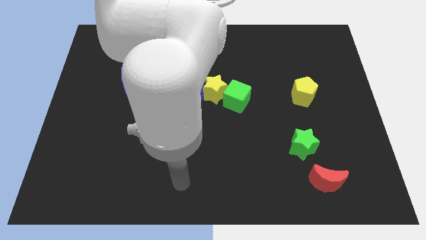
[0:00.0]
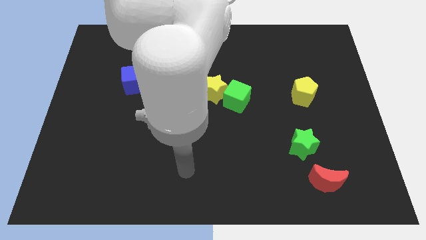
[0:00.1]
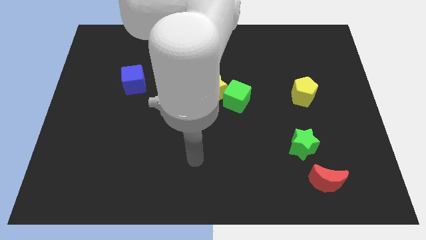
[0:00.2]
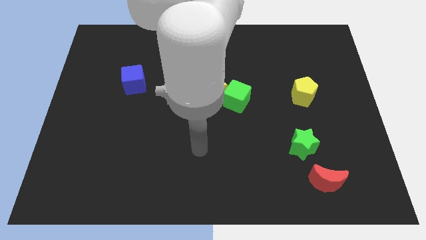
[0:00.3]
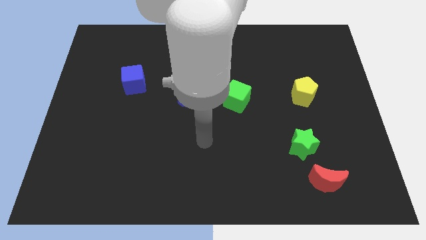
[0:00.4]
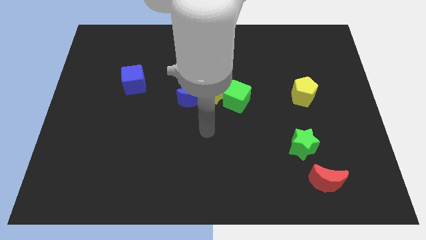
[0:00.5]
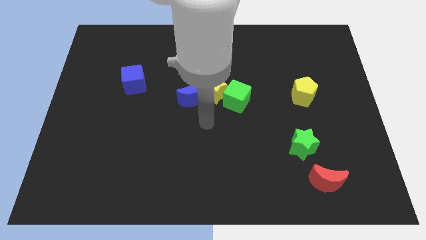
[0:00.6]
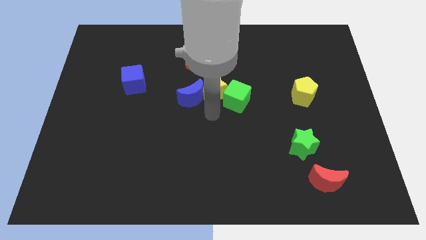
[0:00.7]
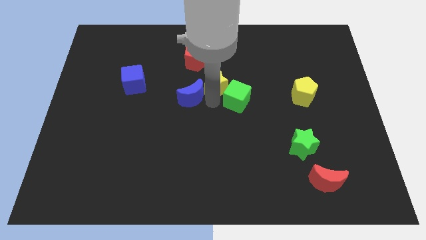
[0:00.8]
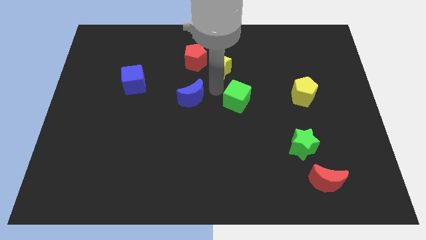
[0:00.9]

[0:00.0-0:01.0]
move the blue moon away from the yellow star

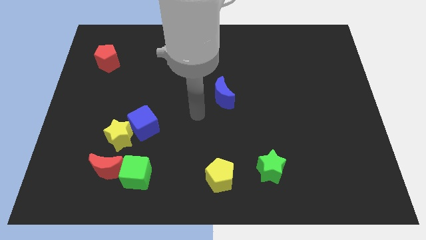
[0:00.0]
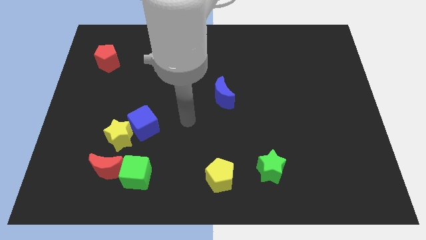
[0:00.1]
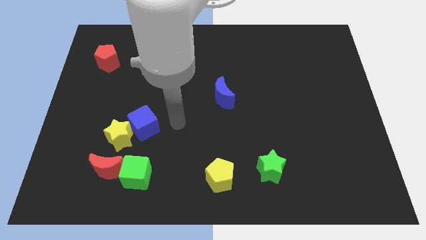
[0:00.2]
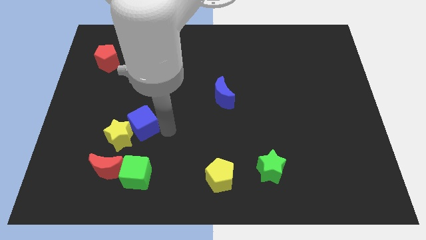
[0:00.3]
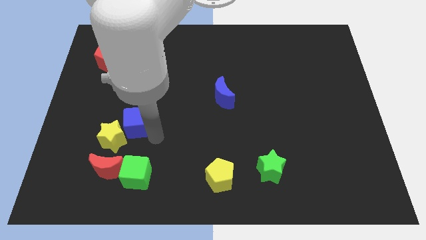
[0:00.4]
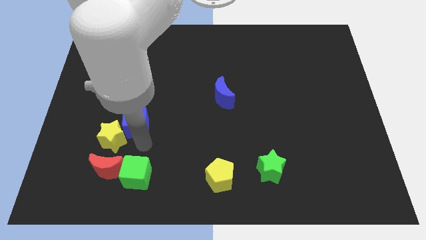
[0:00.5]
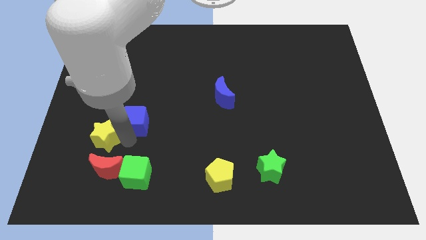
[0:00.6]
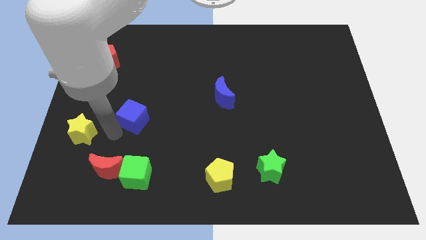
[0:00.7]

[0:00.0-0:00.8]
separate the blue cube from the yellow star

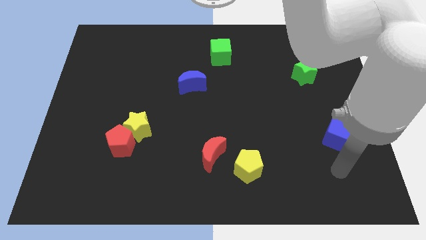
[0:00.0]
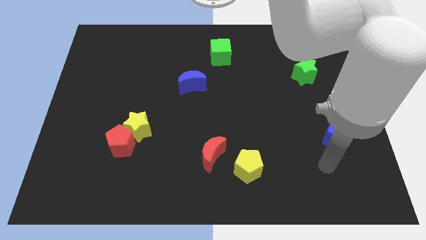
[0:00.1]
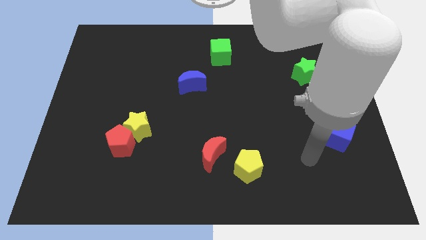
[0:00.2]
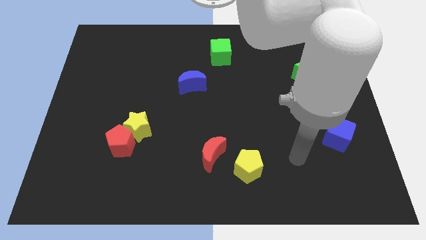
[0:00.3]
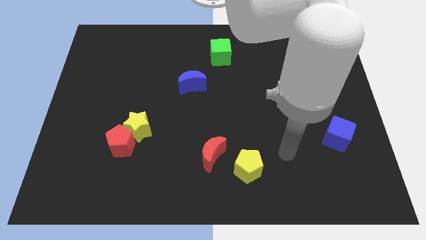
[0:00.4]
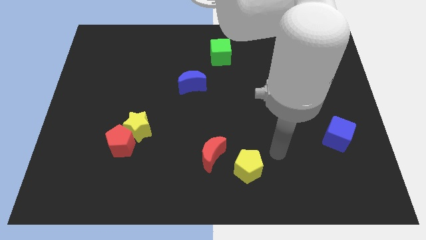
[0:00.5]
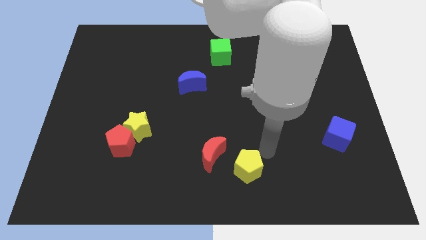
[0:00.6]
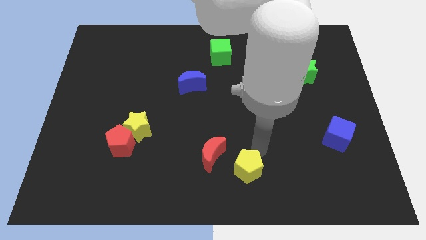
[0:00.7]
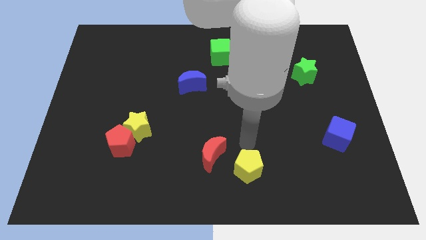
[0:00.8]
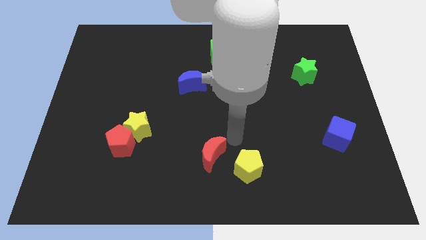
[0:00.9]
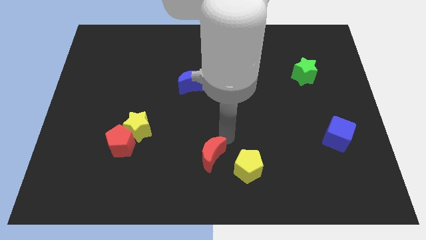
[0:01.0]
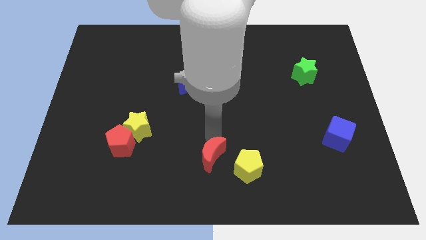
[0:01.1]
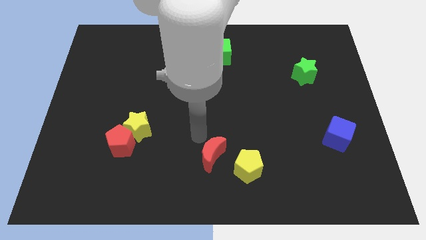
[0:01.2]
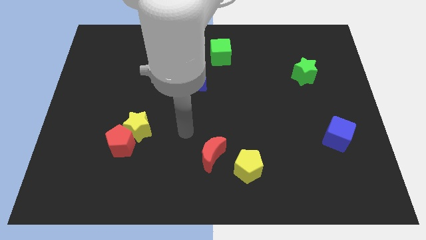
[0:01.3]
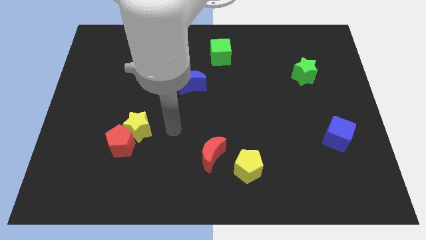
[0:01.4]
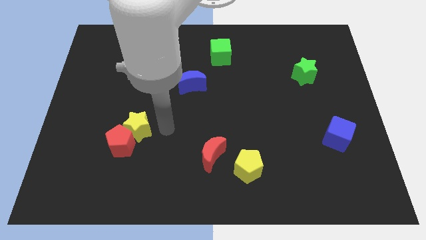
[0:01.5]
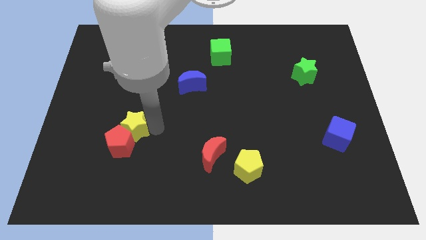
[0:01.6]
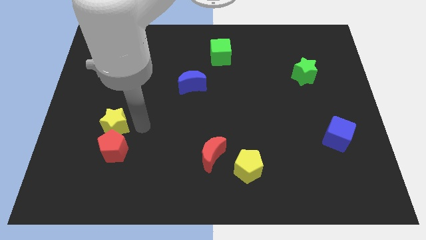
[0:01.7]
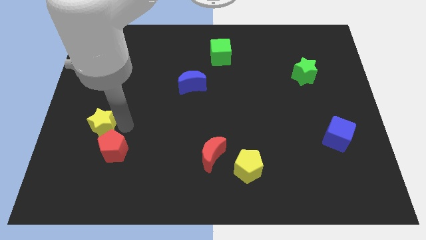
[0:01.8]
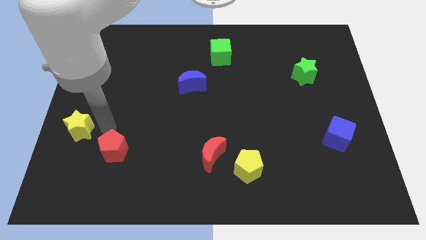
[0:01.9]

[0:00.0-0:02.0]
pull the red pentagon apart from the yellow star

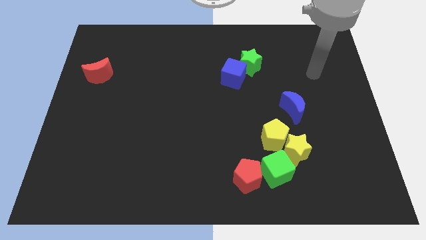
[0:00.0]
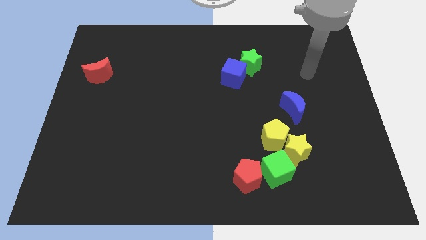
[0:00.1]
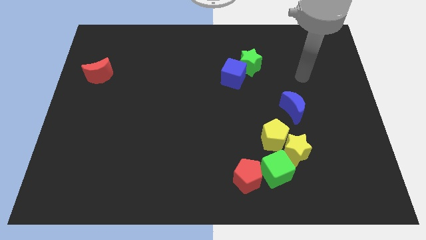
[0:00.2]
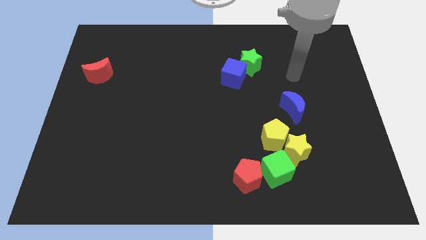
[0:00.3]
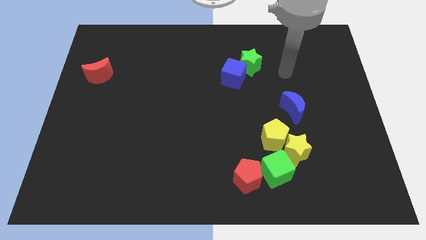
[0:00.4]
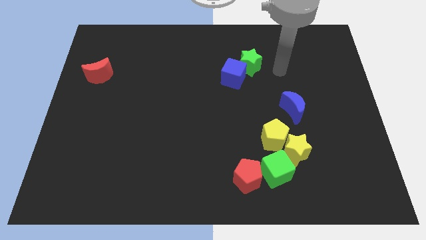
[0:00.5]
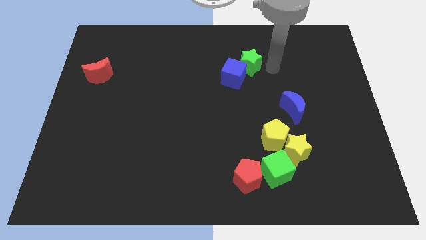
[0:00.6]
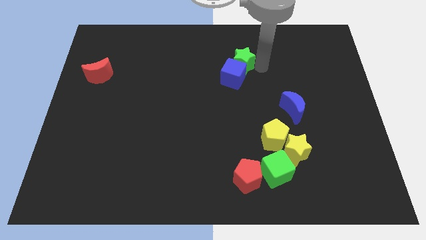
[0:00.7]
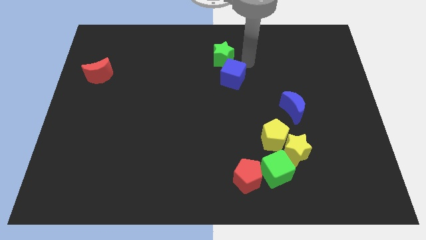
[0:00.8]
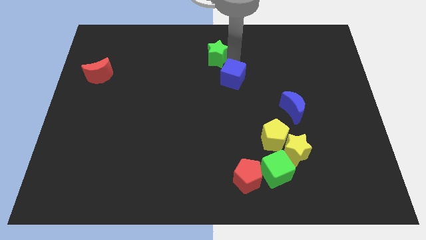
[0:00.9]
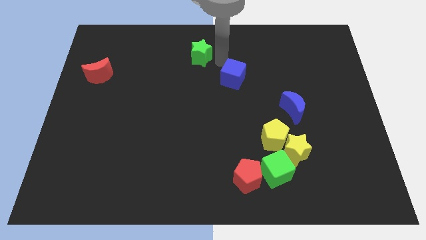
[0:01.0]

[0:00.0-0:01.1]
separate the blue cube from the green star

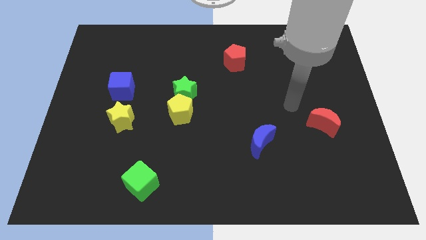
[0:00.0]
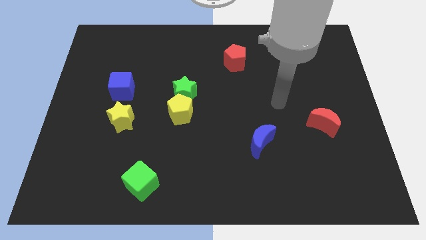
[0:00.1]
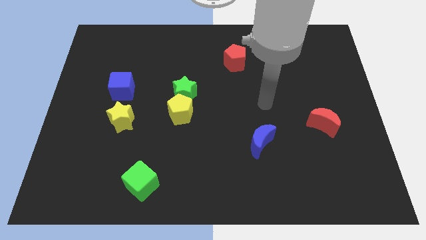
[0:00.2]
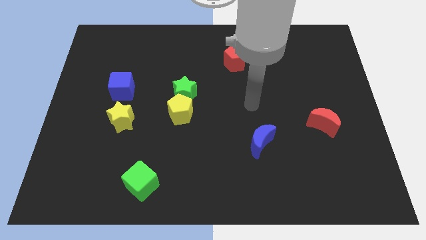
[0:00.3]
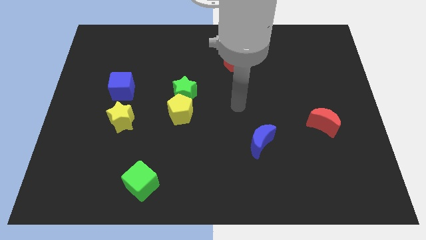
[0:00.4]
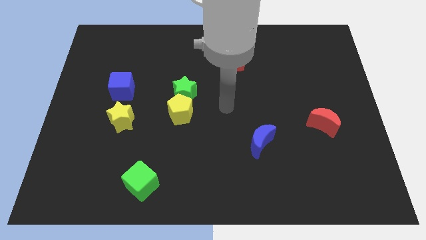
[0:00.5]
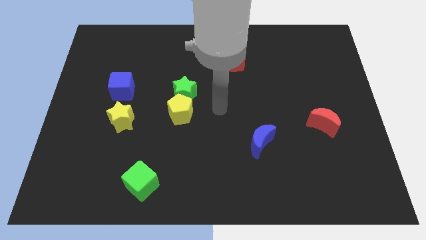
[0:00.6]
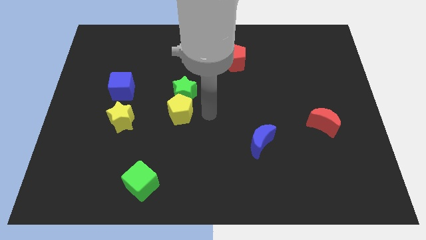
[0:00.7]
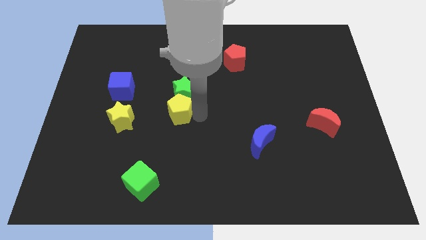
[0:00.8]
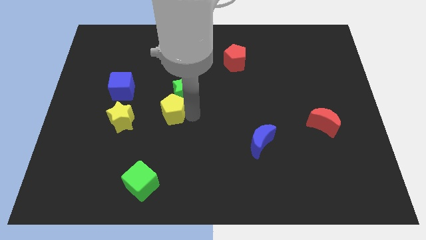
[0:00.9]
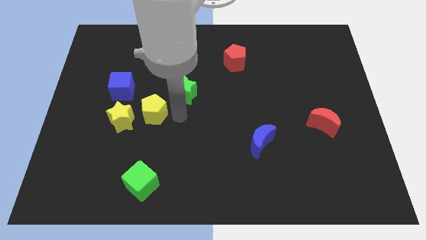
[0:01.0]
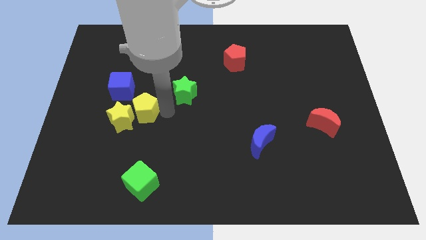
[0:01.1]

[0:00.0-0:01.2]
pull the green star apart from the yellow pentagon

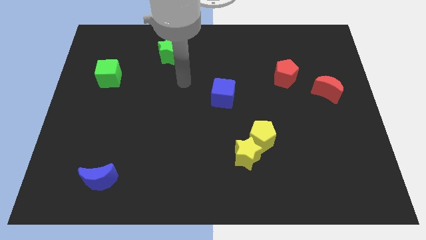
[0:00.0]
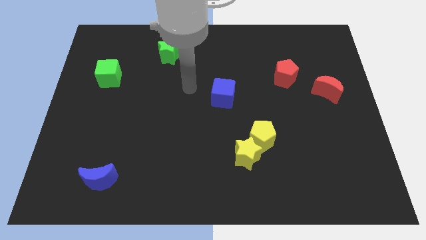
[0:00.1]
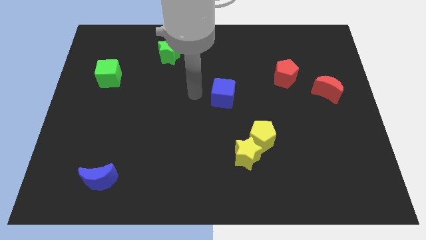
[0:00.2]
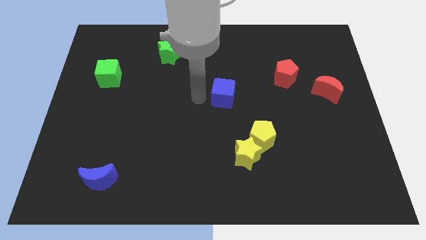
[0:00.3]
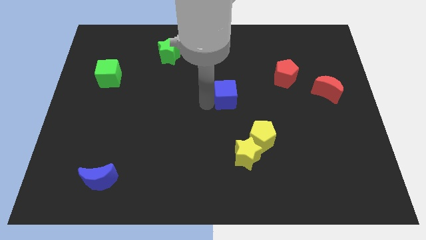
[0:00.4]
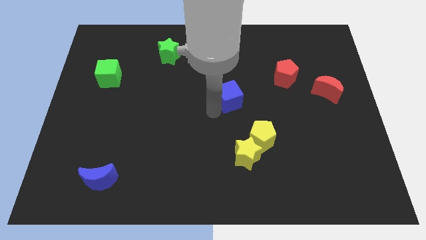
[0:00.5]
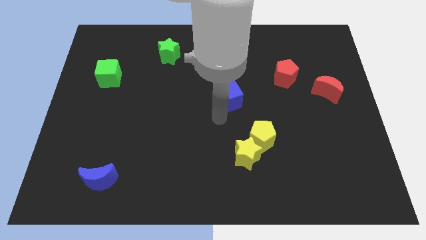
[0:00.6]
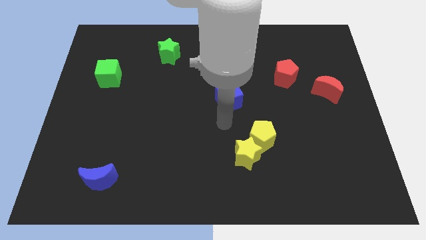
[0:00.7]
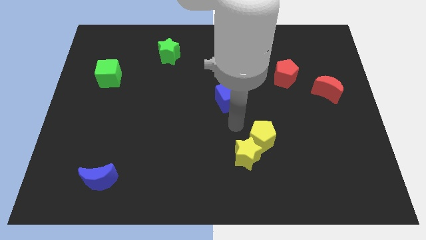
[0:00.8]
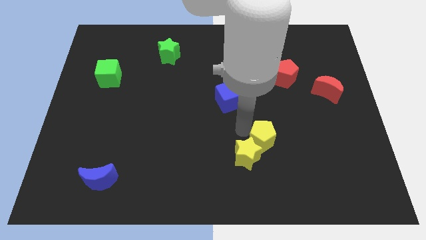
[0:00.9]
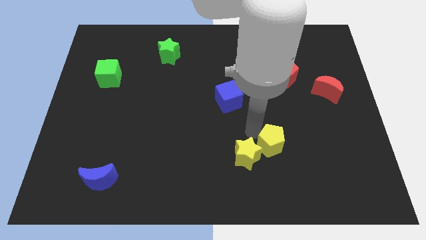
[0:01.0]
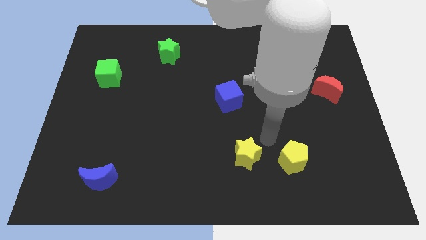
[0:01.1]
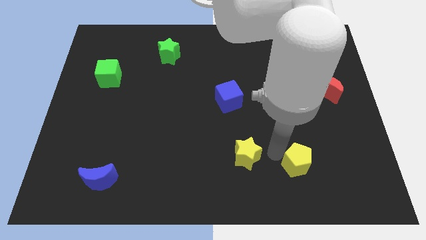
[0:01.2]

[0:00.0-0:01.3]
move the yellow star away from the yellow pentagon

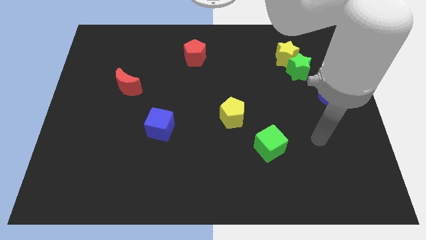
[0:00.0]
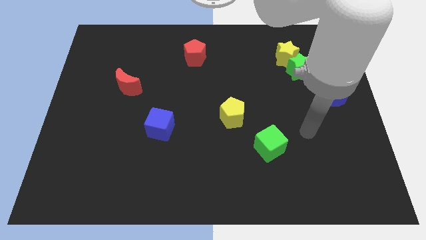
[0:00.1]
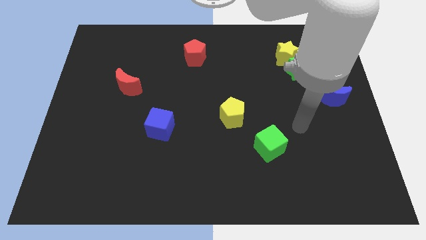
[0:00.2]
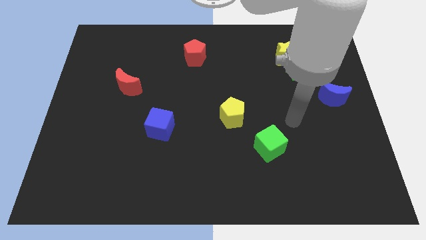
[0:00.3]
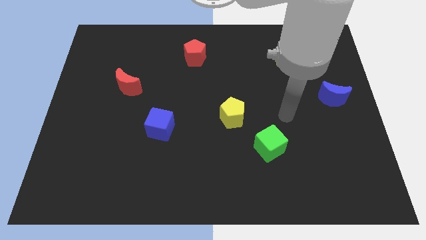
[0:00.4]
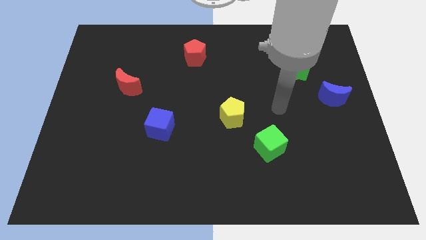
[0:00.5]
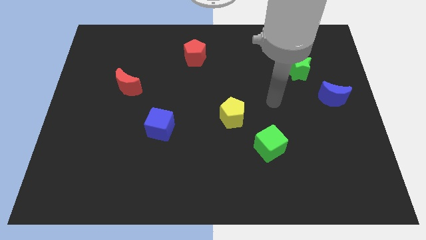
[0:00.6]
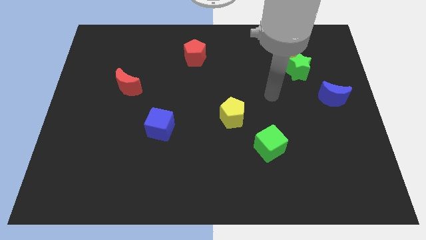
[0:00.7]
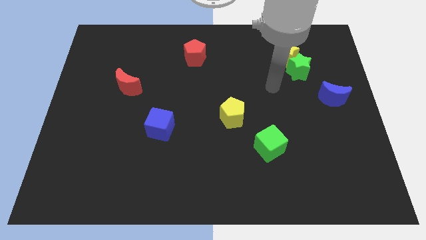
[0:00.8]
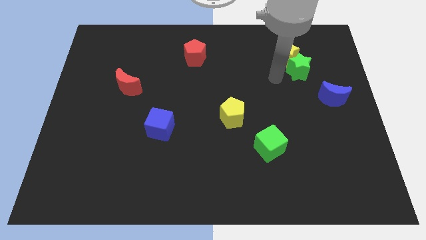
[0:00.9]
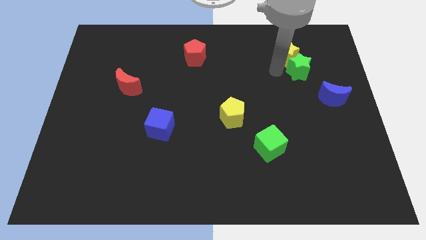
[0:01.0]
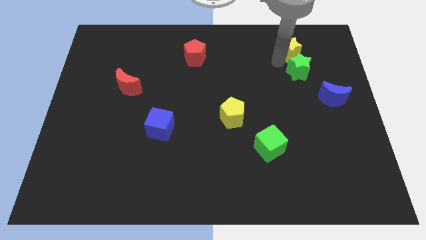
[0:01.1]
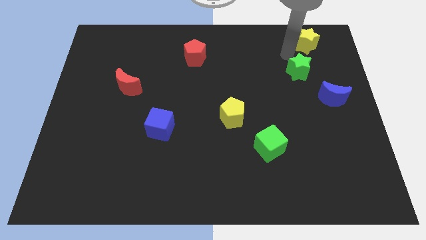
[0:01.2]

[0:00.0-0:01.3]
separate the green star from the yellow star

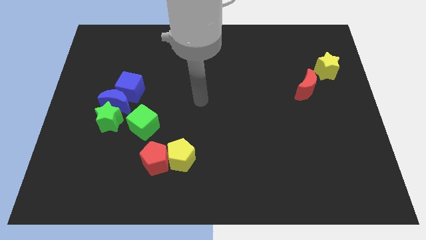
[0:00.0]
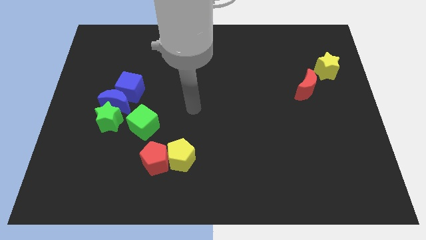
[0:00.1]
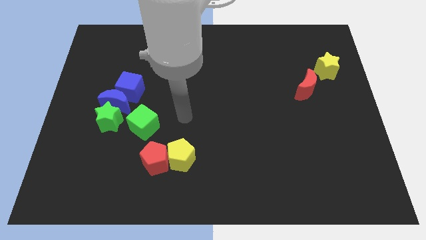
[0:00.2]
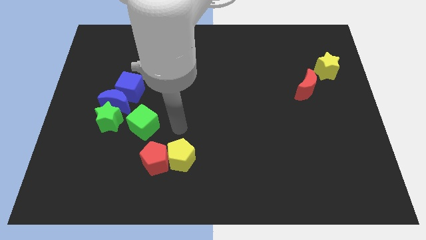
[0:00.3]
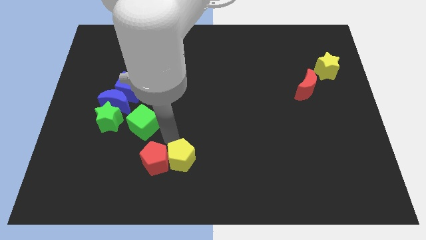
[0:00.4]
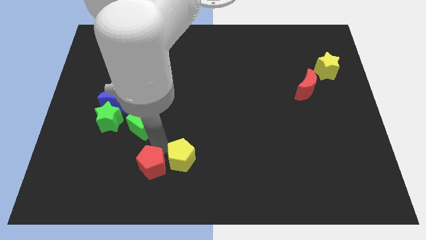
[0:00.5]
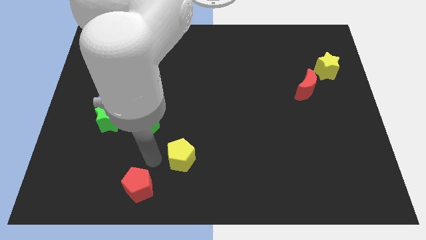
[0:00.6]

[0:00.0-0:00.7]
move the yellow pentagon away from the red pentagon

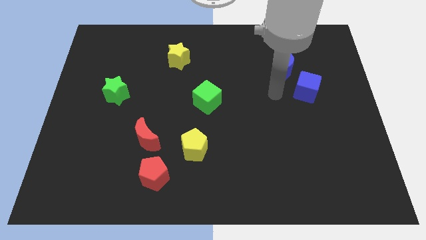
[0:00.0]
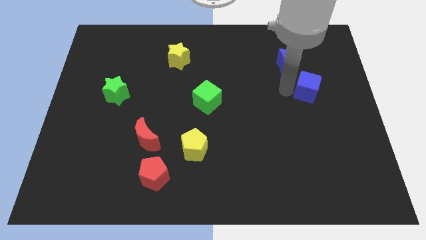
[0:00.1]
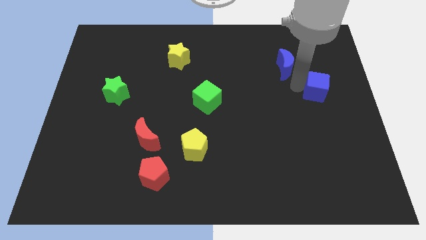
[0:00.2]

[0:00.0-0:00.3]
move the blue moon away from the blue cube
